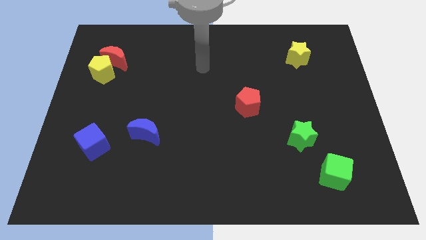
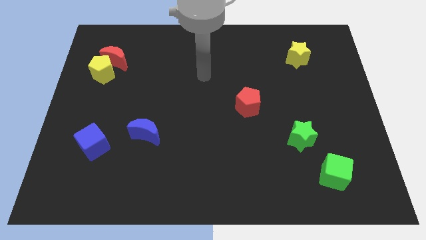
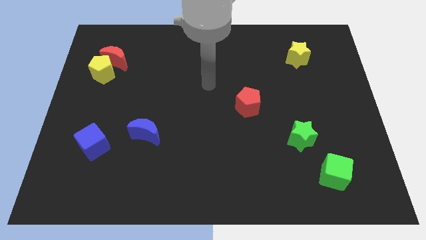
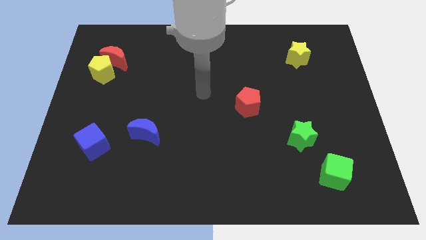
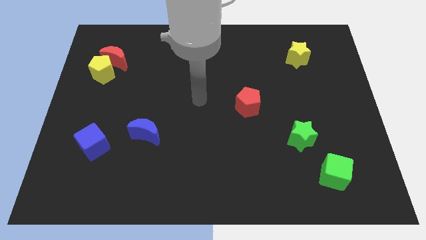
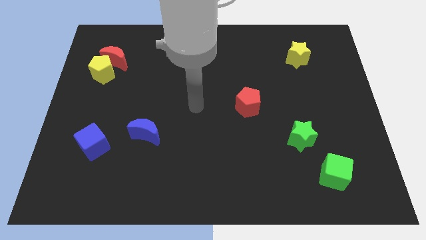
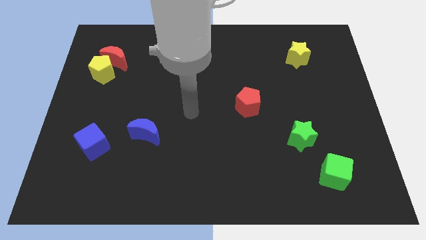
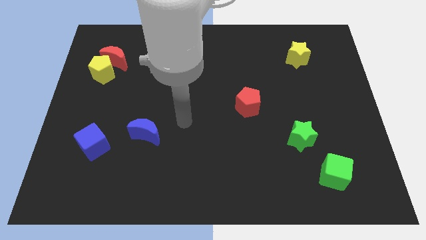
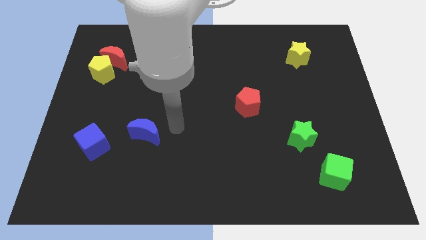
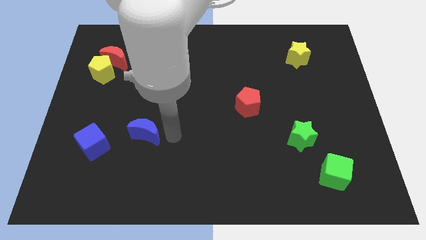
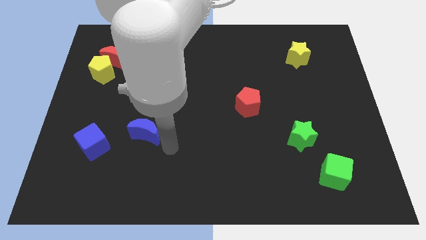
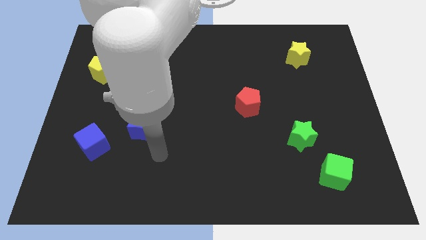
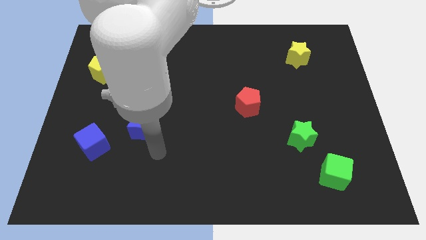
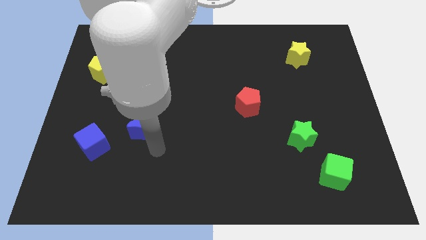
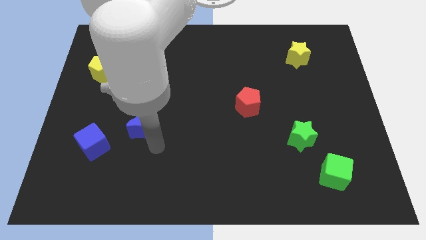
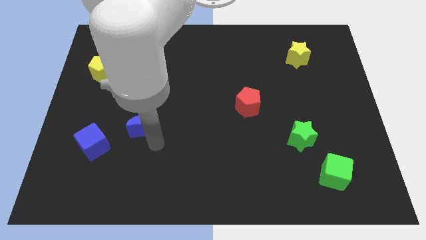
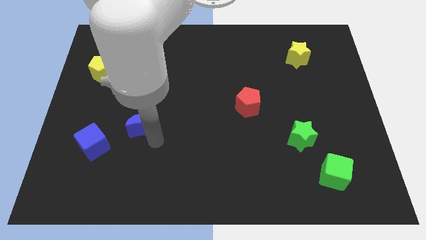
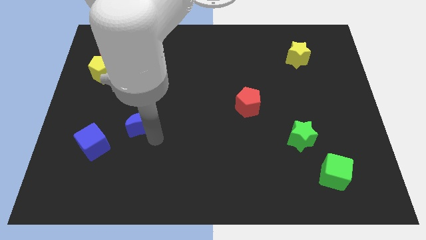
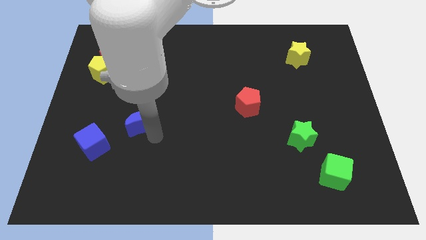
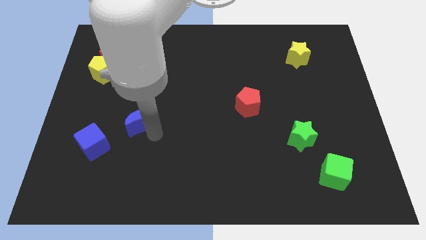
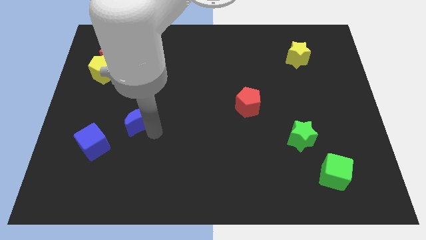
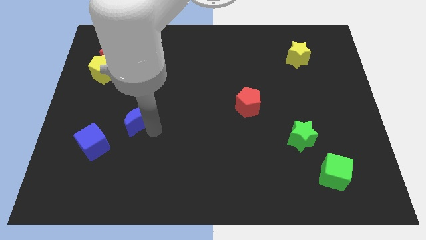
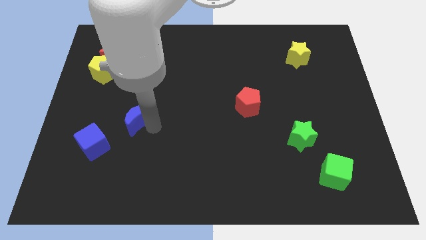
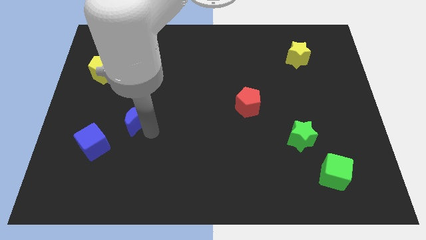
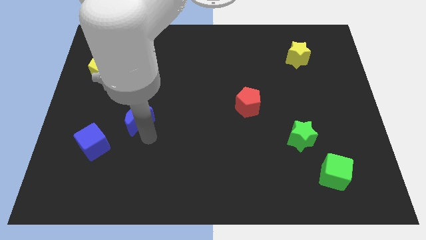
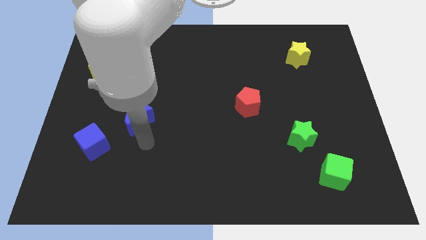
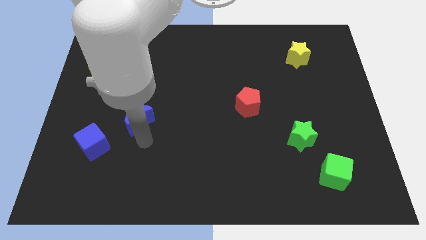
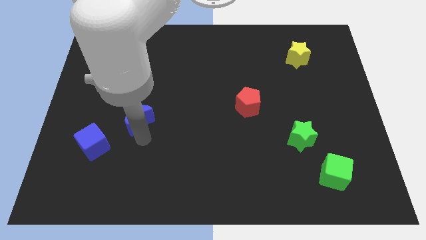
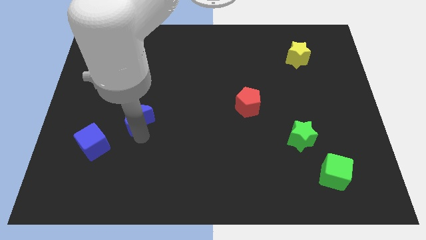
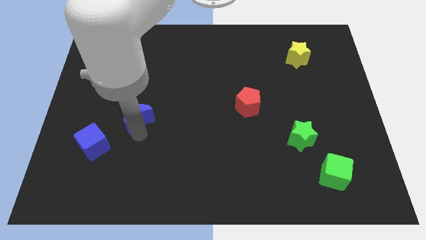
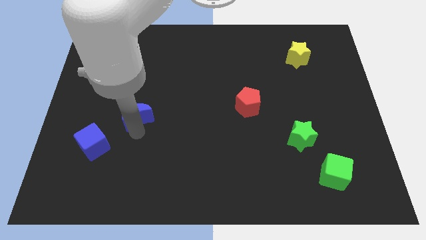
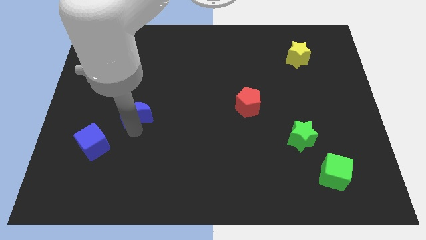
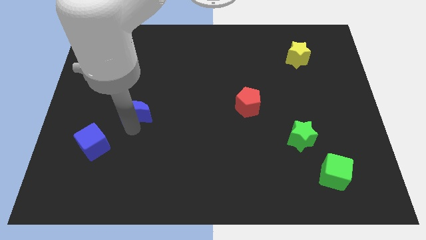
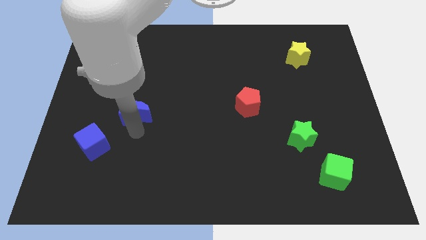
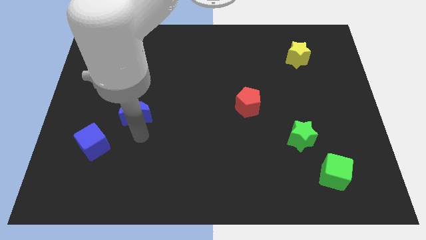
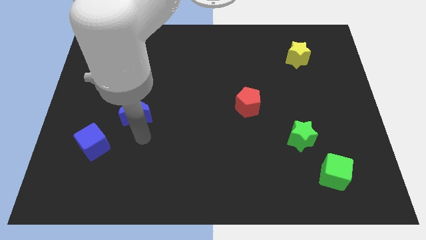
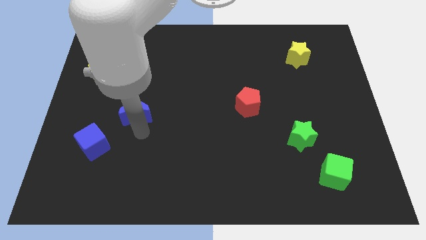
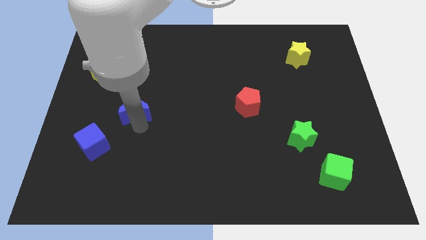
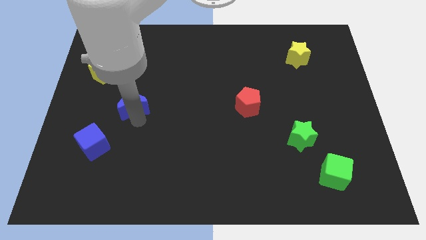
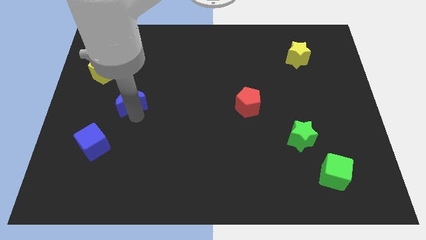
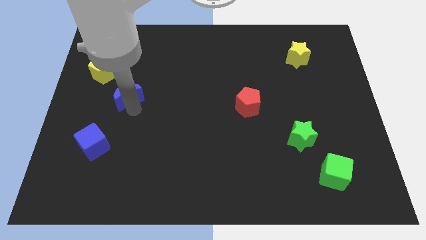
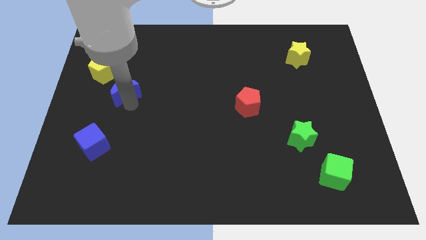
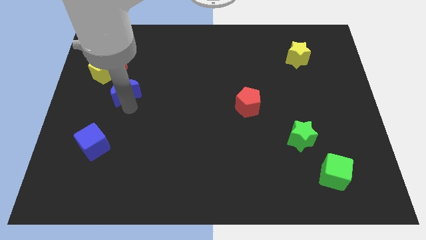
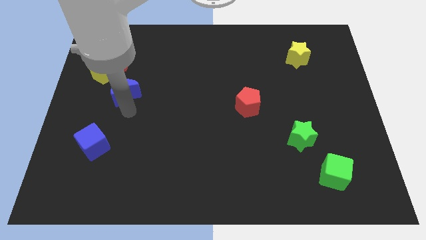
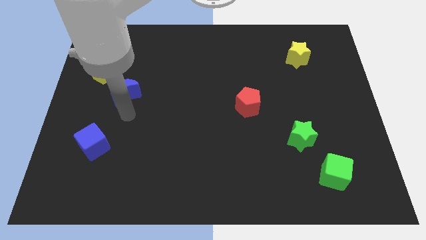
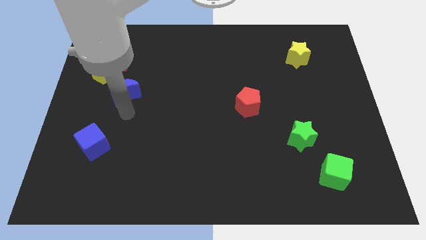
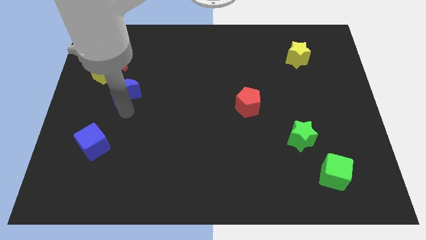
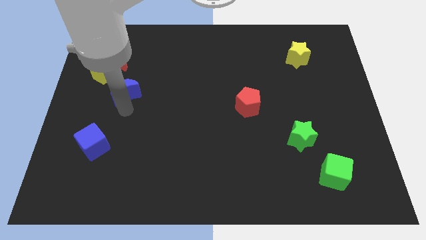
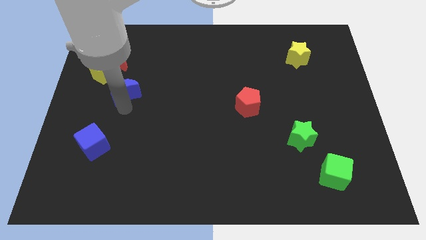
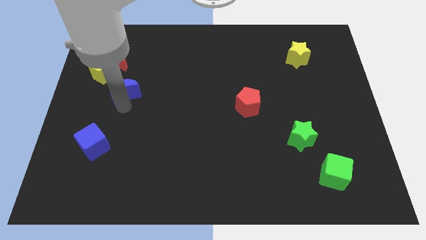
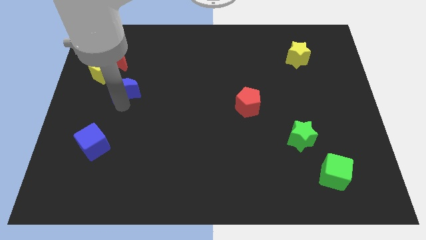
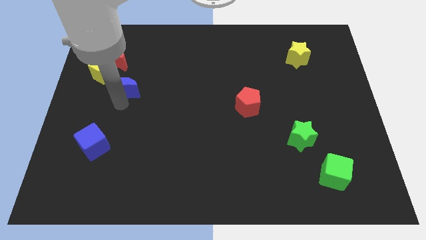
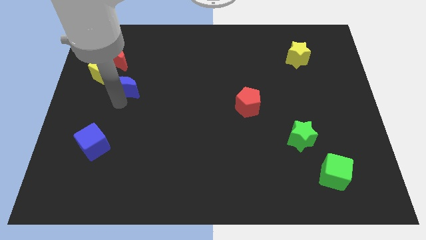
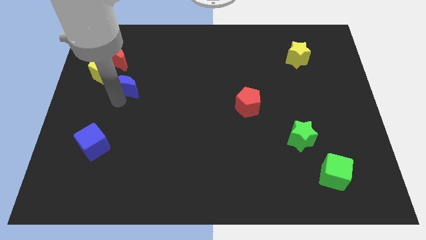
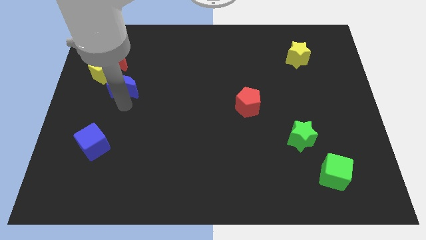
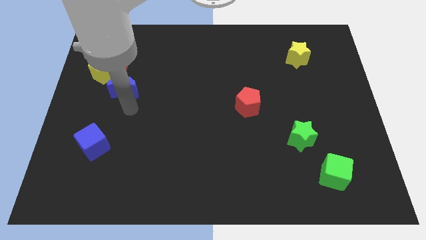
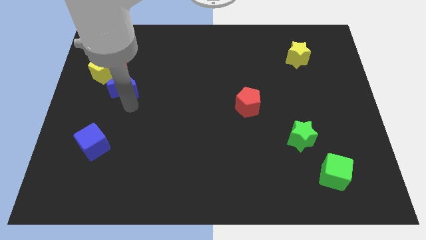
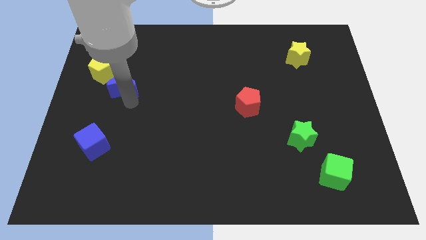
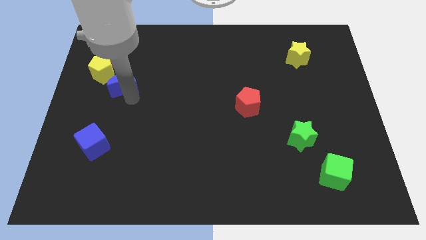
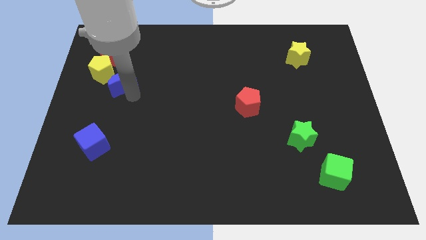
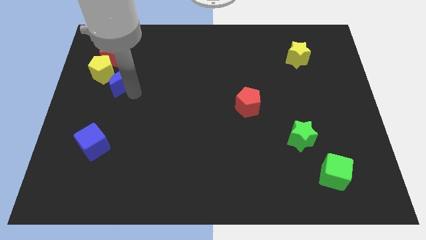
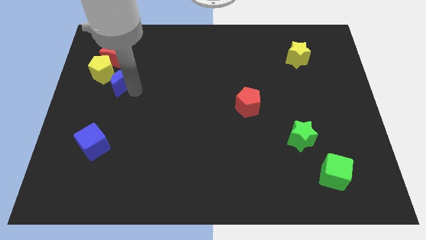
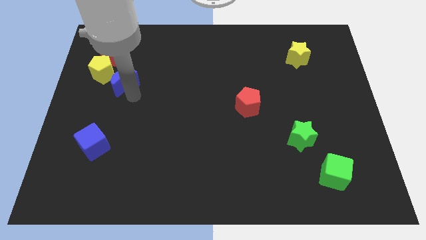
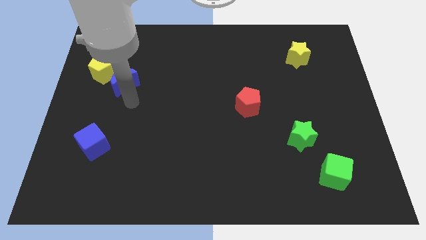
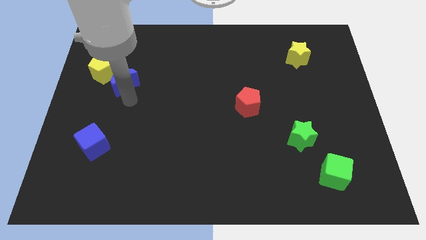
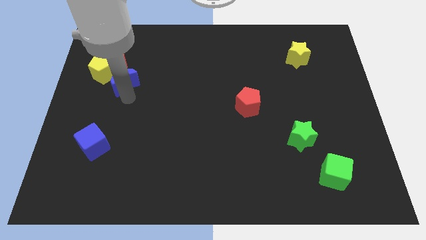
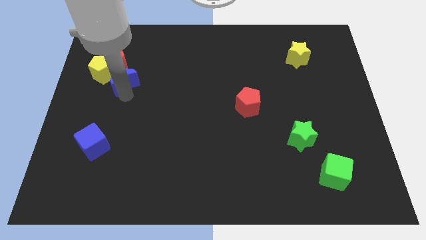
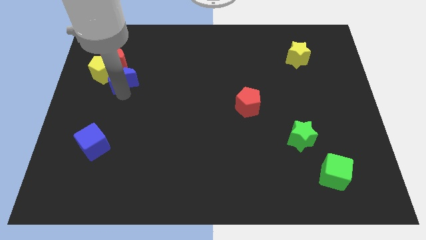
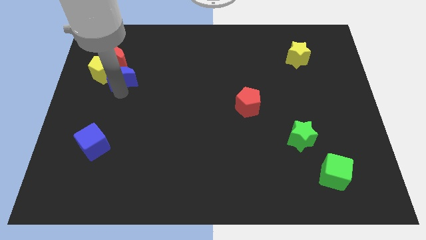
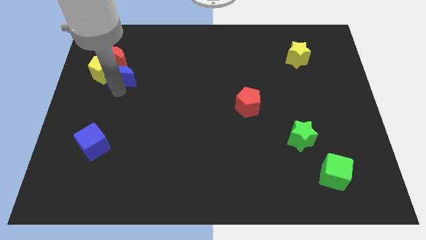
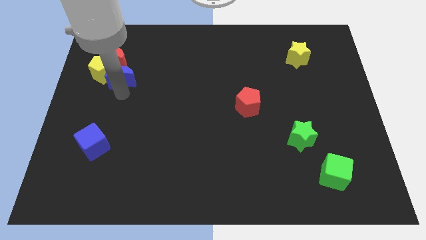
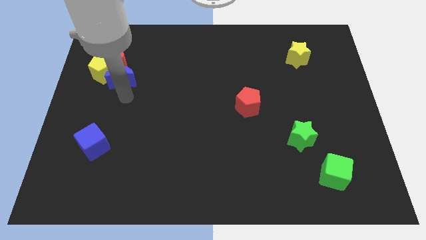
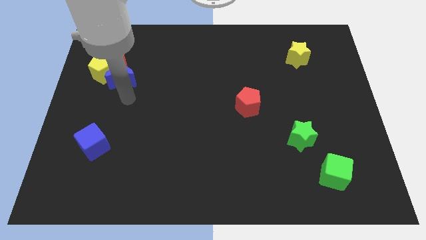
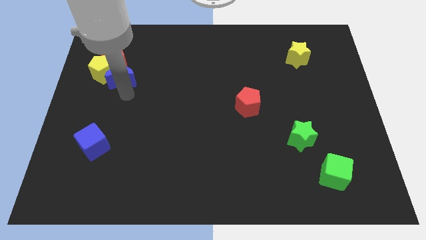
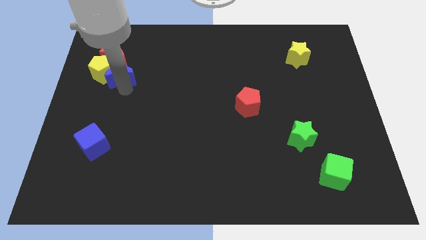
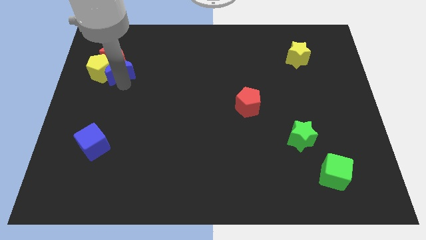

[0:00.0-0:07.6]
put the blue moon to the red moon
